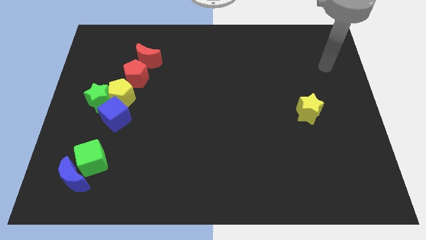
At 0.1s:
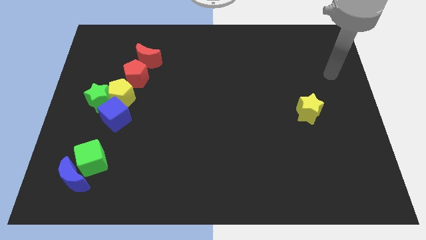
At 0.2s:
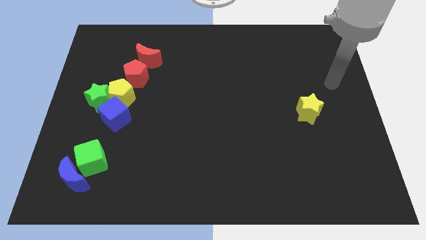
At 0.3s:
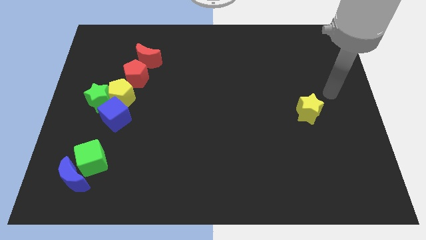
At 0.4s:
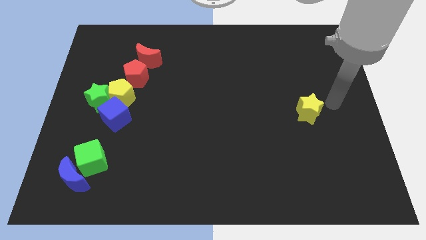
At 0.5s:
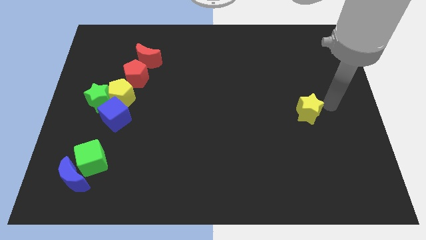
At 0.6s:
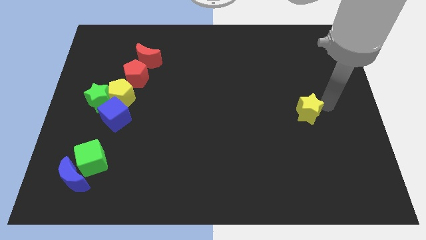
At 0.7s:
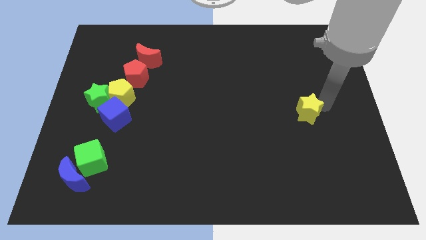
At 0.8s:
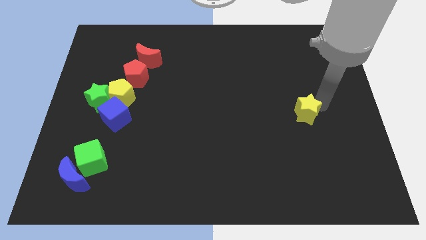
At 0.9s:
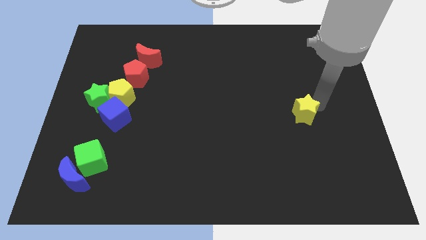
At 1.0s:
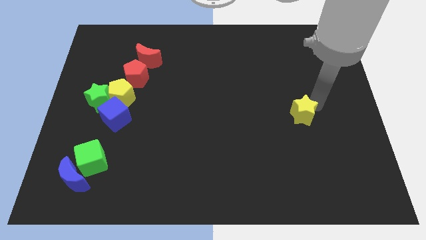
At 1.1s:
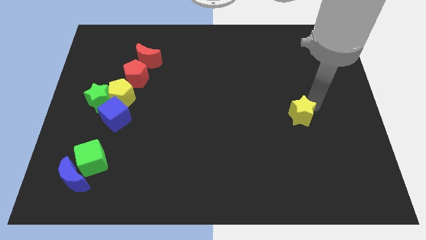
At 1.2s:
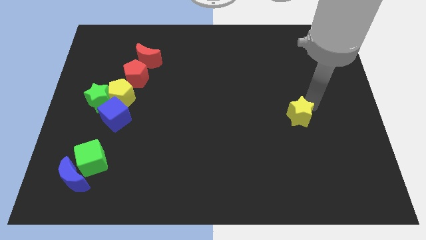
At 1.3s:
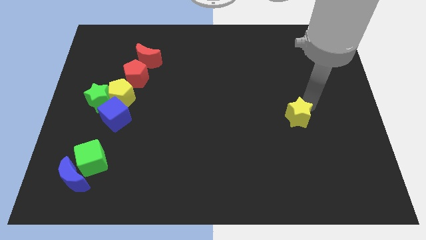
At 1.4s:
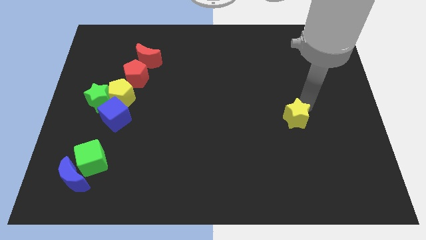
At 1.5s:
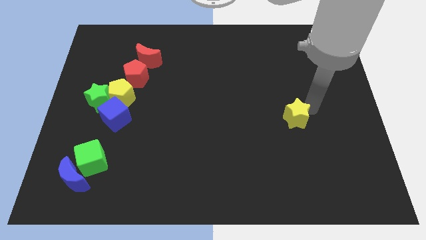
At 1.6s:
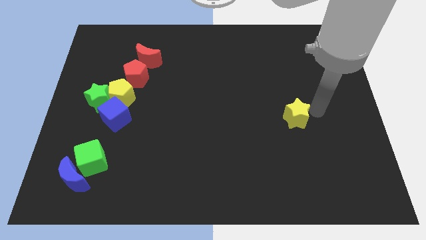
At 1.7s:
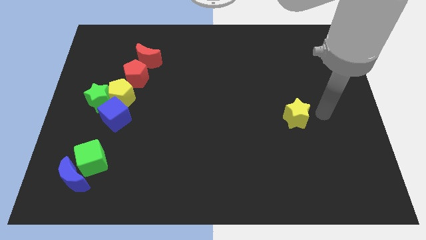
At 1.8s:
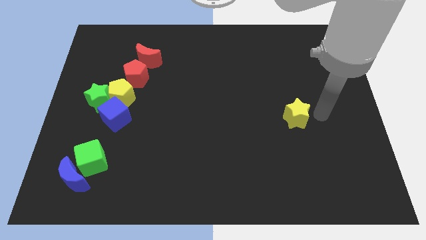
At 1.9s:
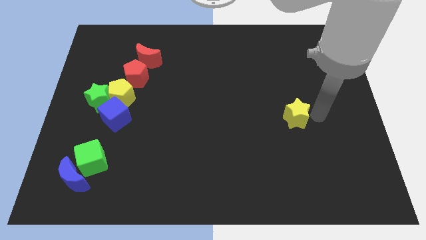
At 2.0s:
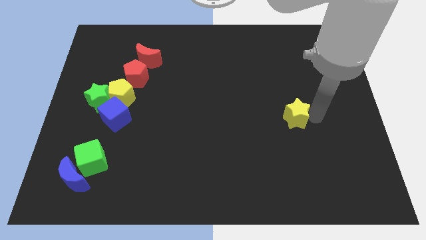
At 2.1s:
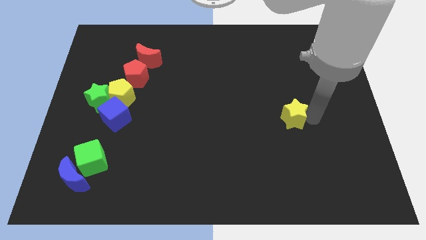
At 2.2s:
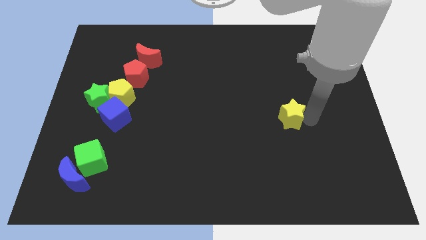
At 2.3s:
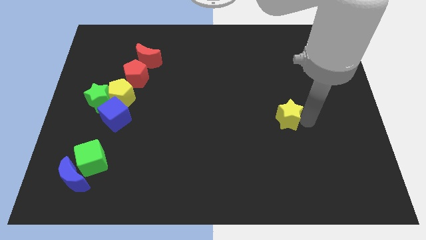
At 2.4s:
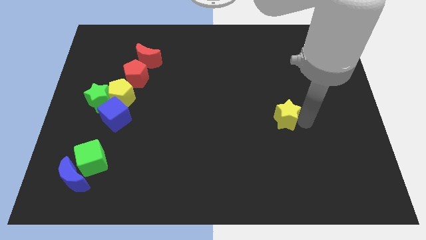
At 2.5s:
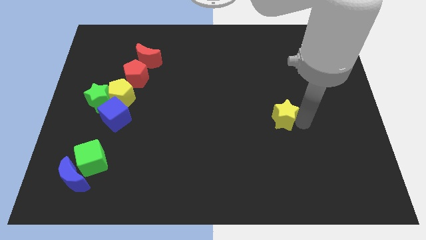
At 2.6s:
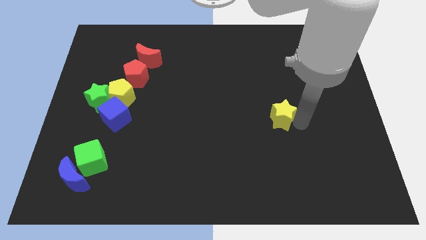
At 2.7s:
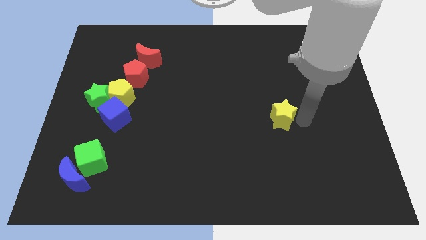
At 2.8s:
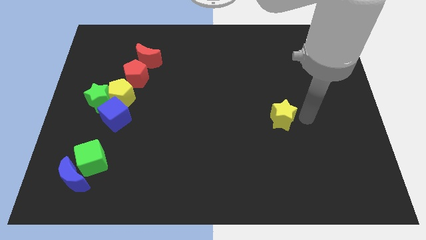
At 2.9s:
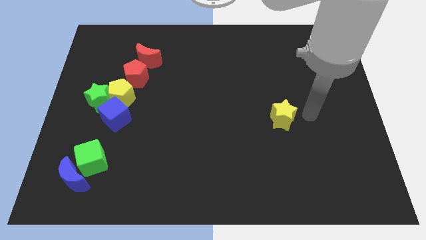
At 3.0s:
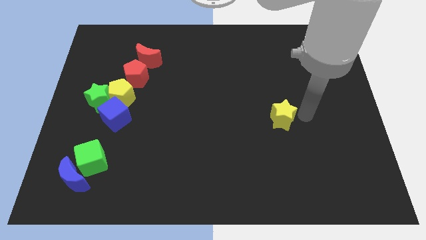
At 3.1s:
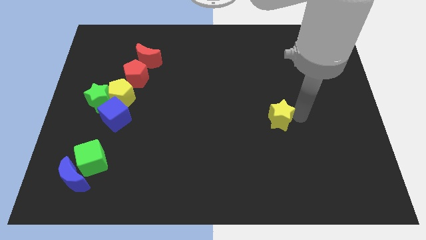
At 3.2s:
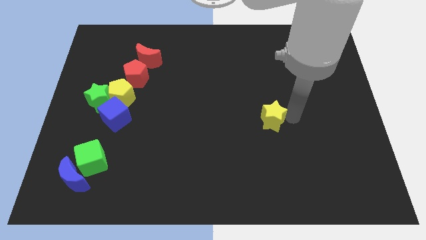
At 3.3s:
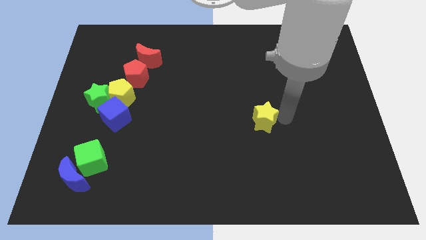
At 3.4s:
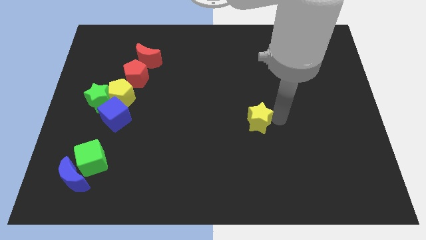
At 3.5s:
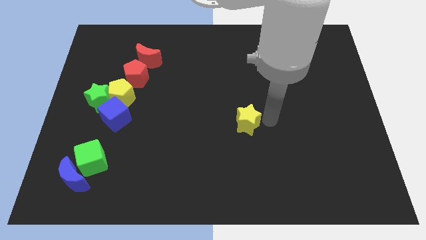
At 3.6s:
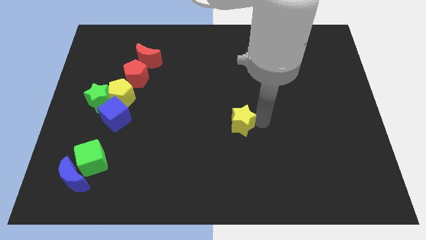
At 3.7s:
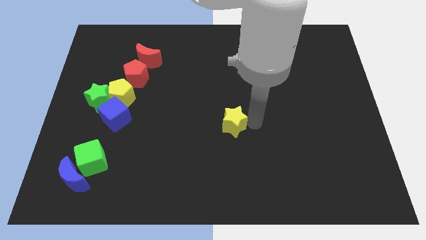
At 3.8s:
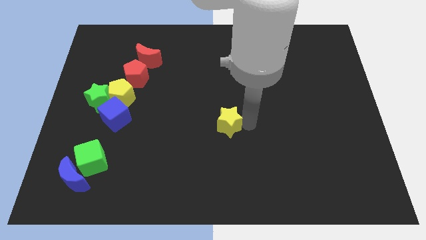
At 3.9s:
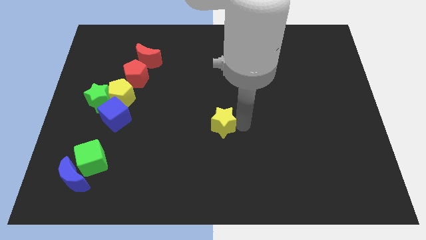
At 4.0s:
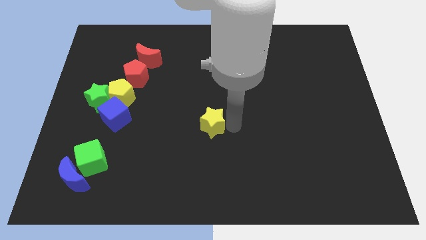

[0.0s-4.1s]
move the yellow star left

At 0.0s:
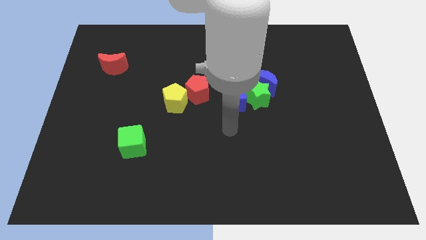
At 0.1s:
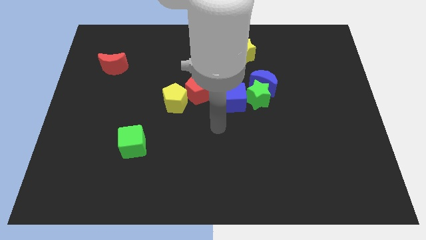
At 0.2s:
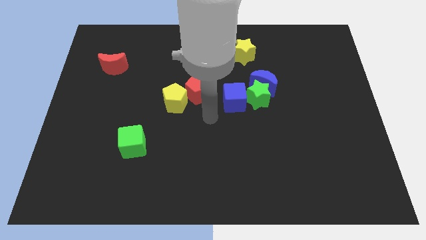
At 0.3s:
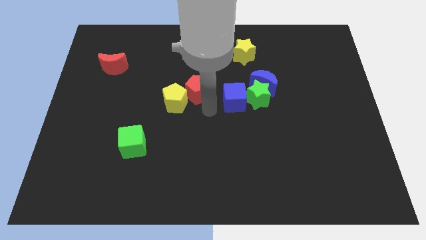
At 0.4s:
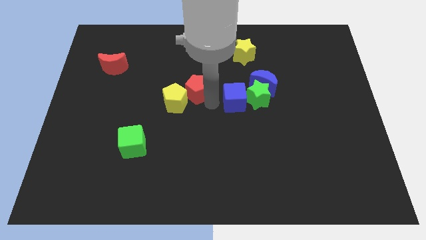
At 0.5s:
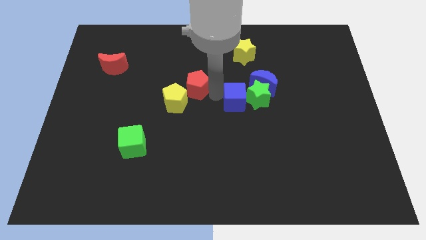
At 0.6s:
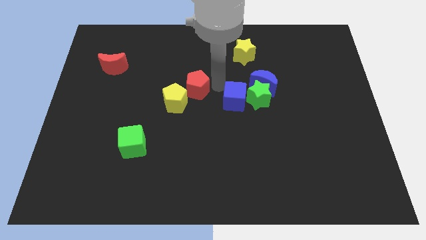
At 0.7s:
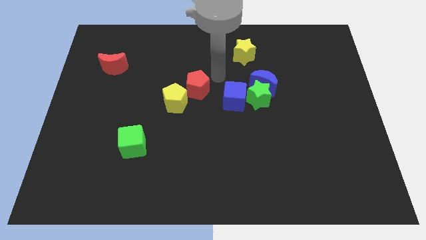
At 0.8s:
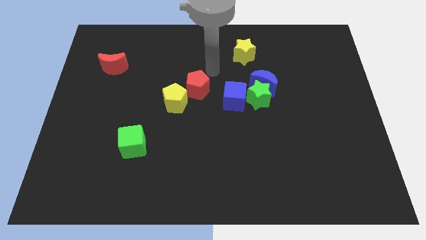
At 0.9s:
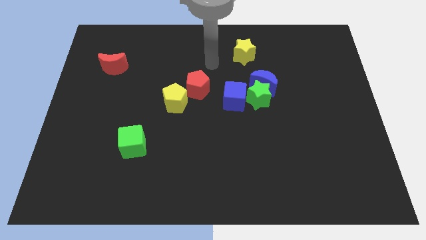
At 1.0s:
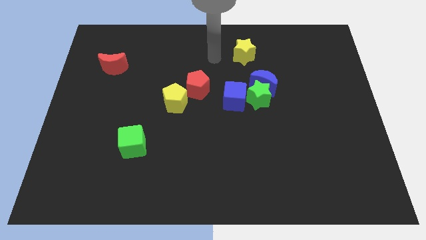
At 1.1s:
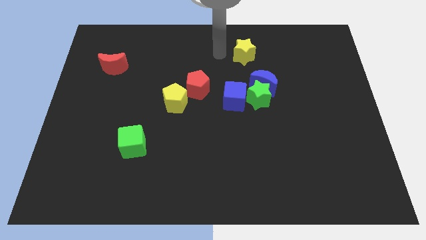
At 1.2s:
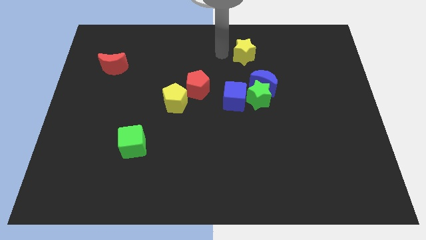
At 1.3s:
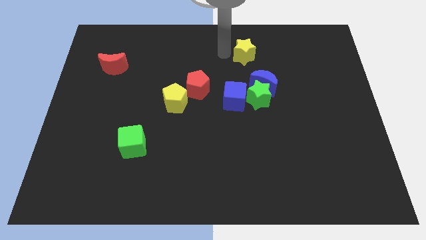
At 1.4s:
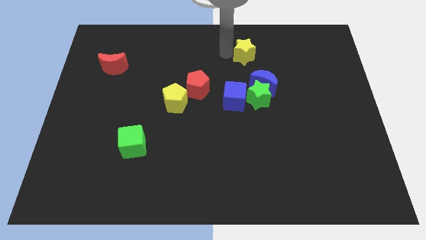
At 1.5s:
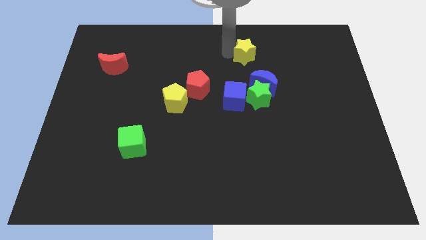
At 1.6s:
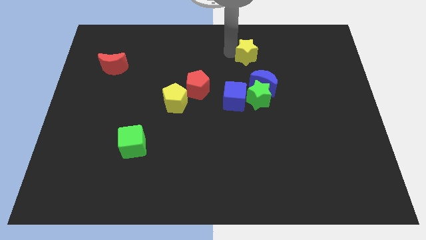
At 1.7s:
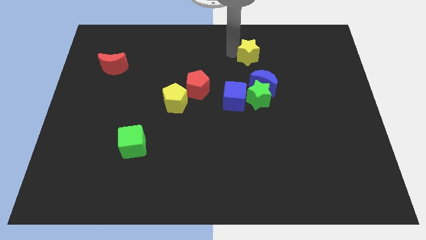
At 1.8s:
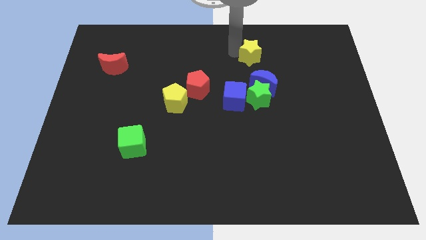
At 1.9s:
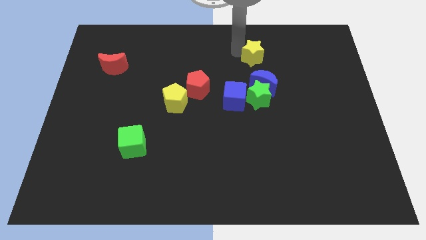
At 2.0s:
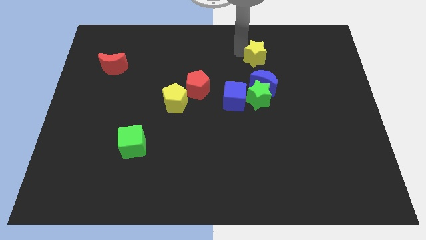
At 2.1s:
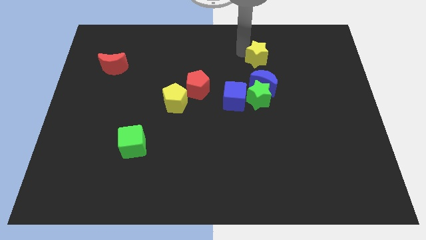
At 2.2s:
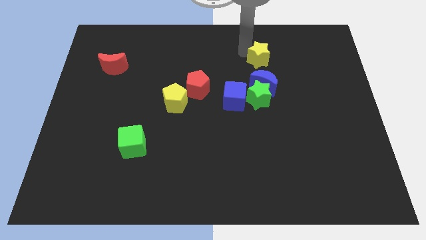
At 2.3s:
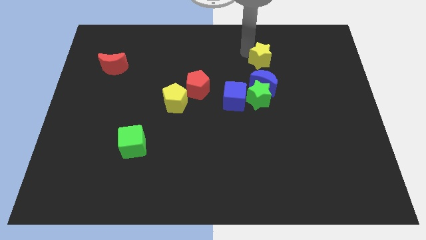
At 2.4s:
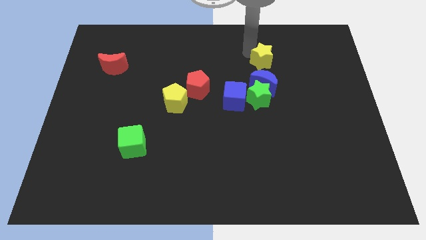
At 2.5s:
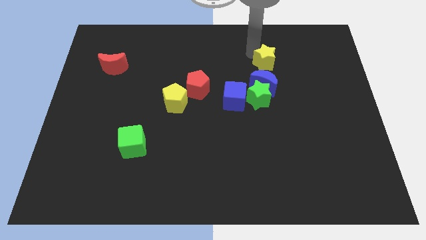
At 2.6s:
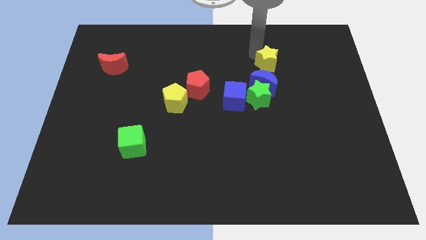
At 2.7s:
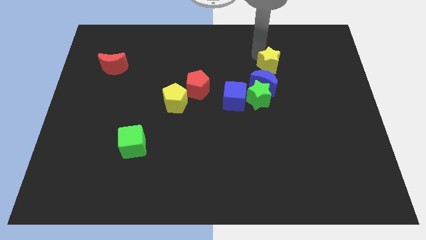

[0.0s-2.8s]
push the yellow star down and to the right a little bit

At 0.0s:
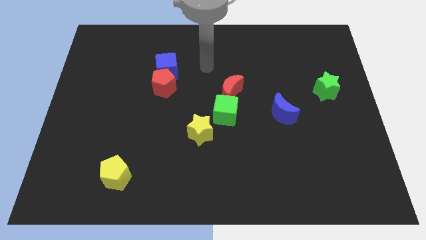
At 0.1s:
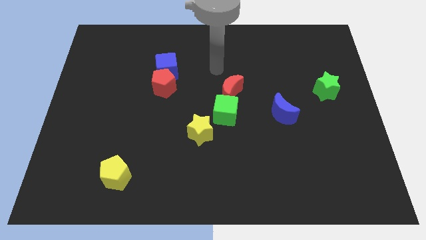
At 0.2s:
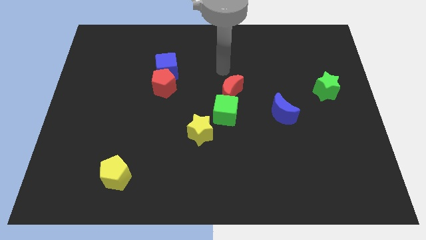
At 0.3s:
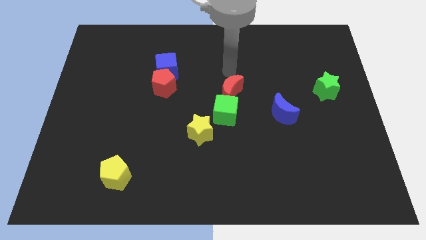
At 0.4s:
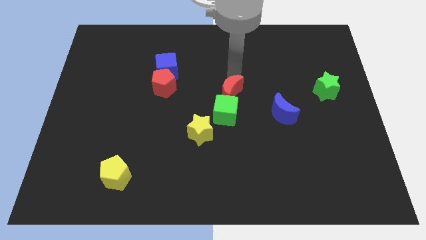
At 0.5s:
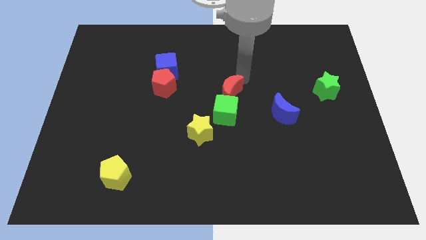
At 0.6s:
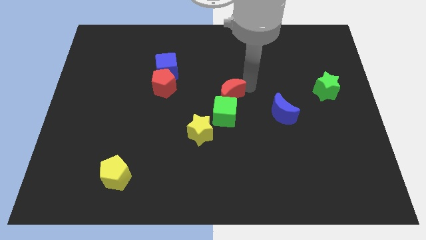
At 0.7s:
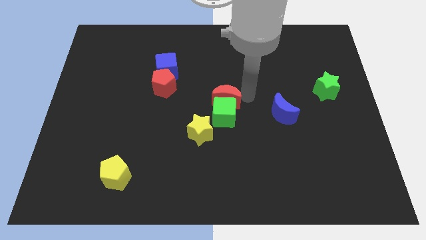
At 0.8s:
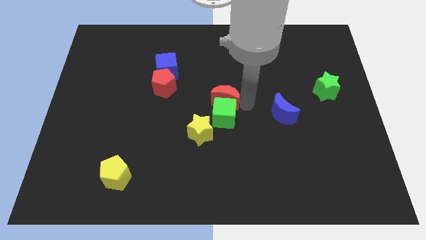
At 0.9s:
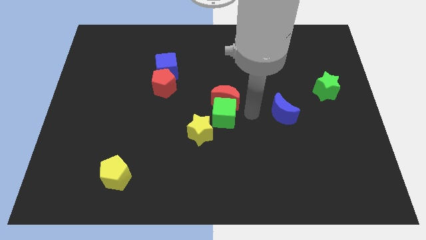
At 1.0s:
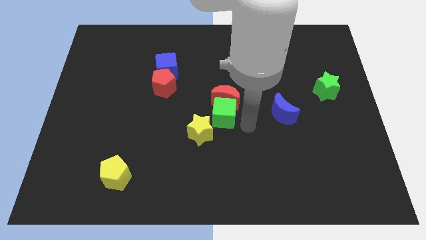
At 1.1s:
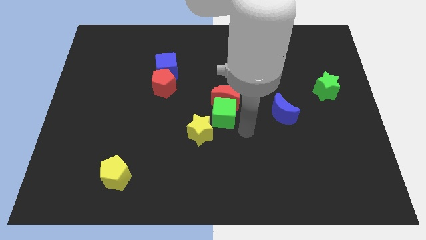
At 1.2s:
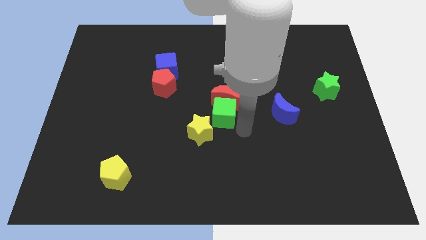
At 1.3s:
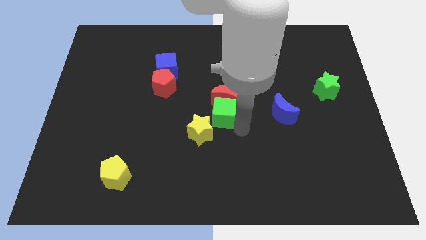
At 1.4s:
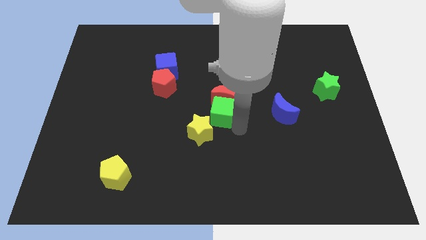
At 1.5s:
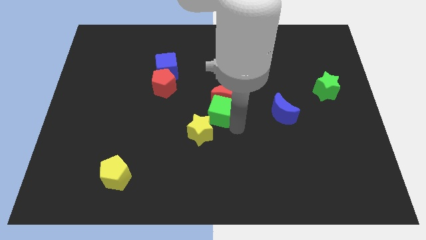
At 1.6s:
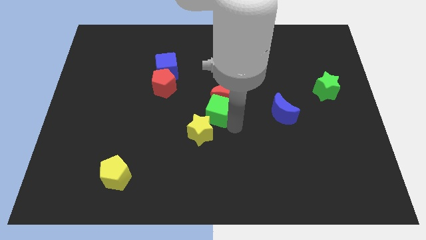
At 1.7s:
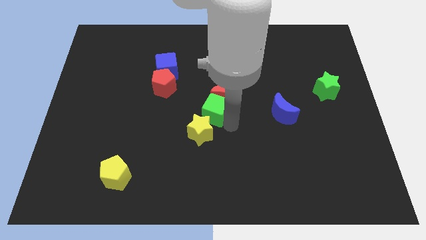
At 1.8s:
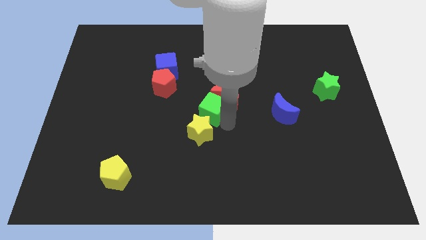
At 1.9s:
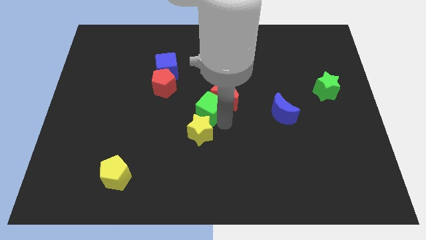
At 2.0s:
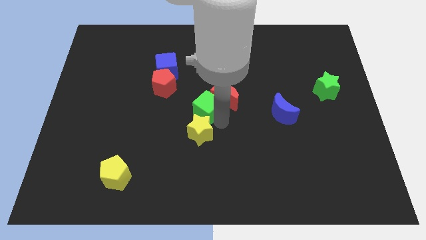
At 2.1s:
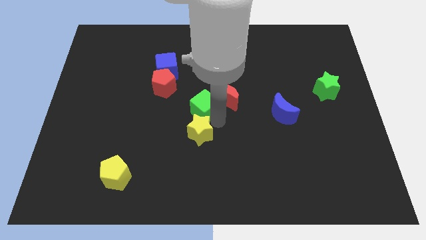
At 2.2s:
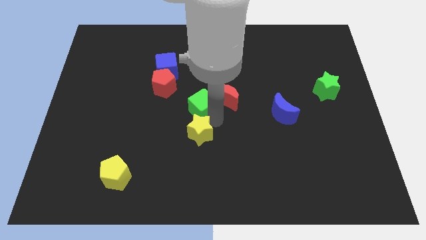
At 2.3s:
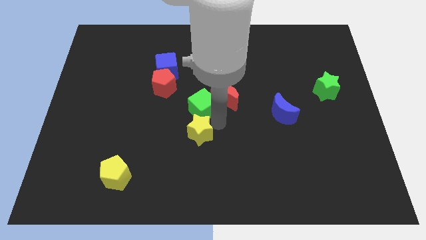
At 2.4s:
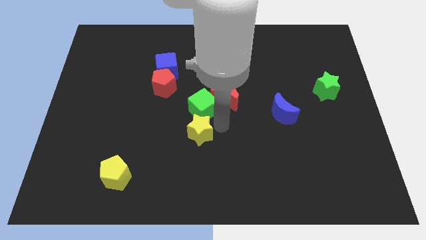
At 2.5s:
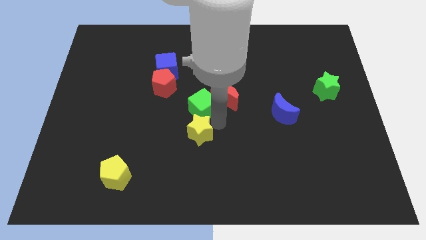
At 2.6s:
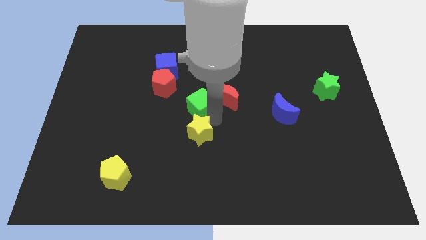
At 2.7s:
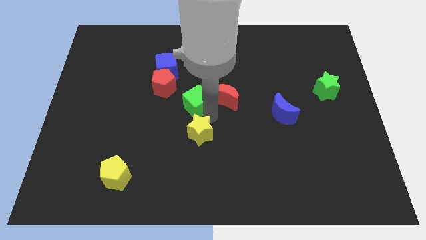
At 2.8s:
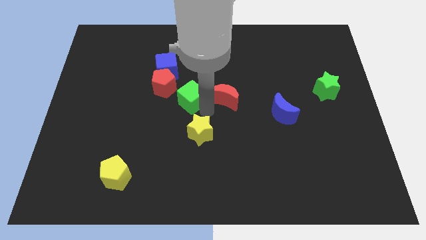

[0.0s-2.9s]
push the green cube a little bit to the left
